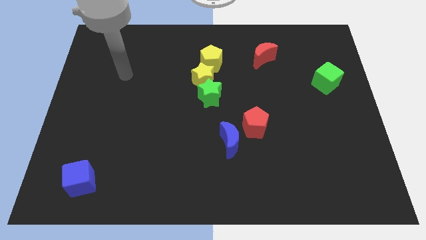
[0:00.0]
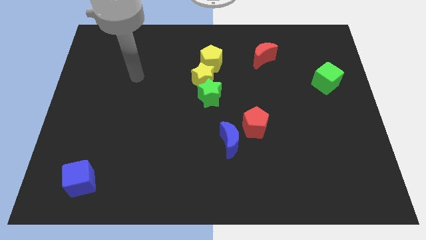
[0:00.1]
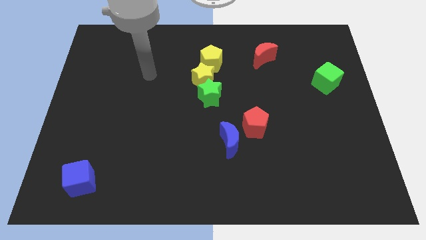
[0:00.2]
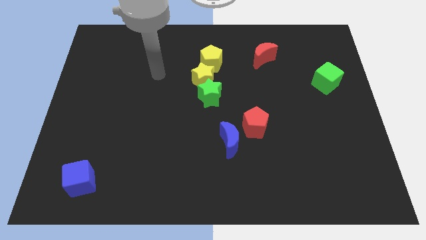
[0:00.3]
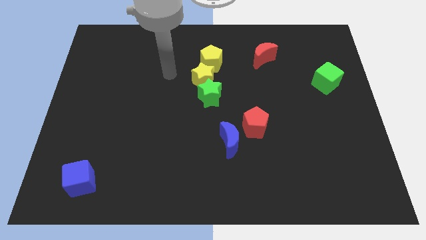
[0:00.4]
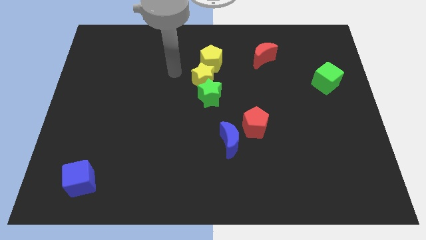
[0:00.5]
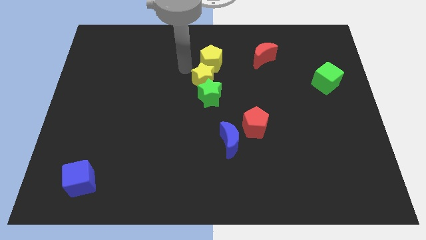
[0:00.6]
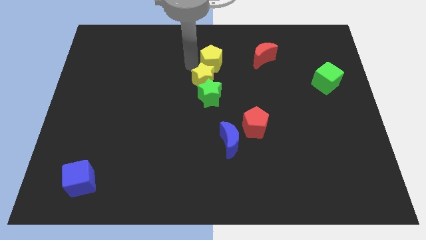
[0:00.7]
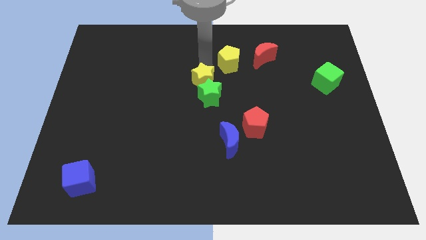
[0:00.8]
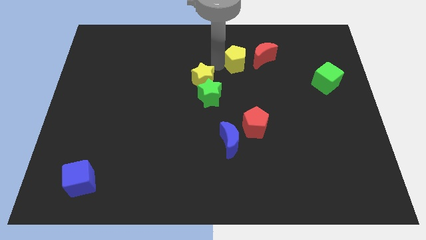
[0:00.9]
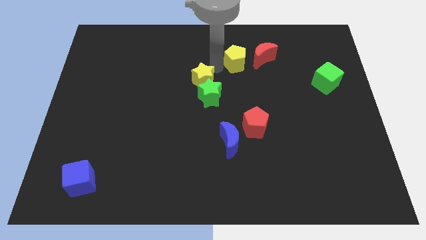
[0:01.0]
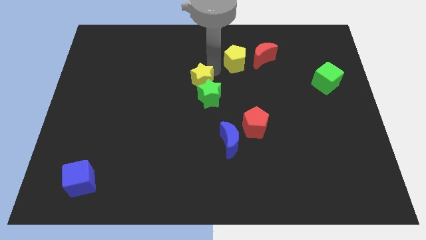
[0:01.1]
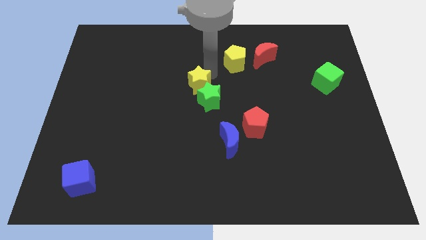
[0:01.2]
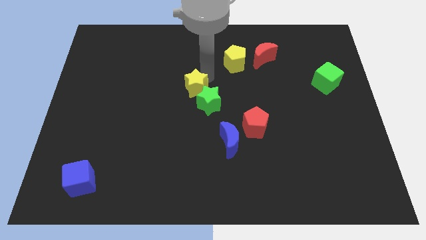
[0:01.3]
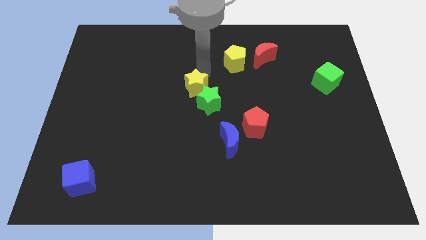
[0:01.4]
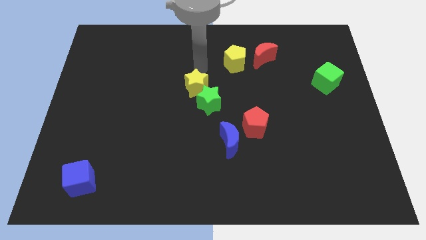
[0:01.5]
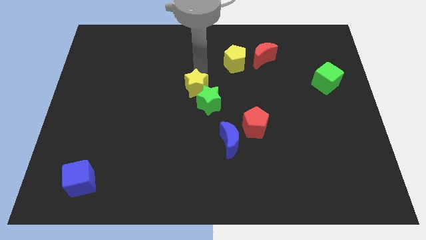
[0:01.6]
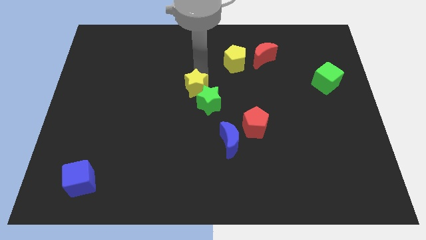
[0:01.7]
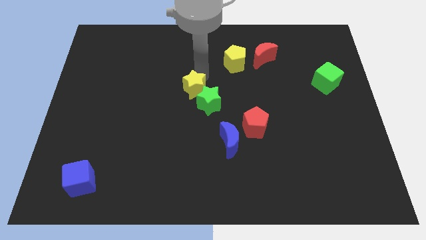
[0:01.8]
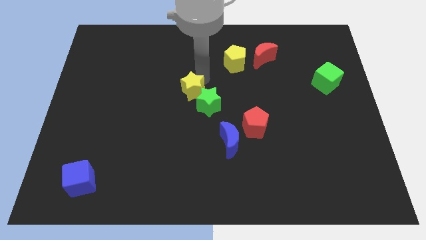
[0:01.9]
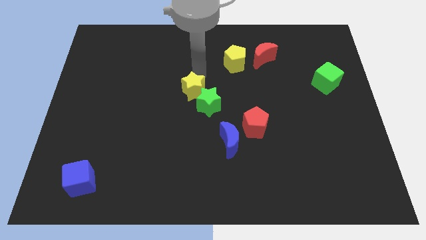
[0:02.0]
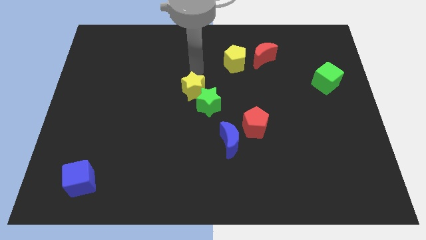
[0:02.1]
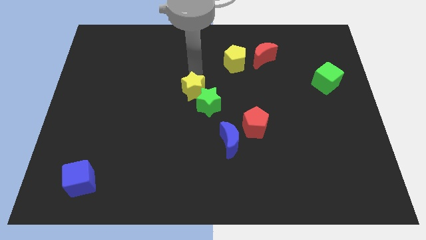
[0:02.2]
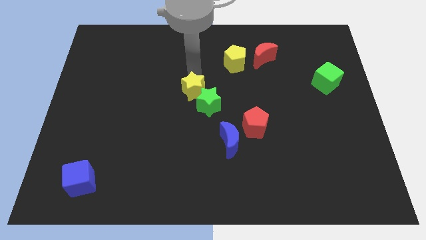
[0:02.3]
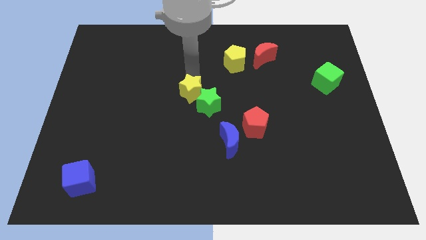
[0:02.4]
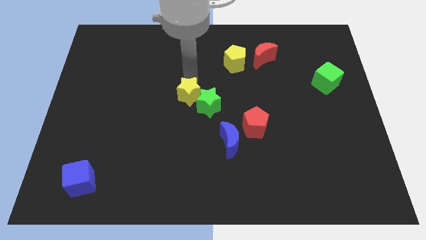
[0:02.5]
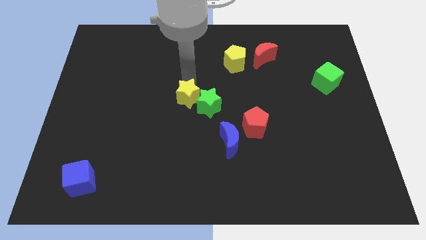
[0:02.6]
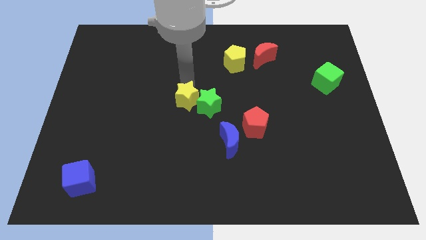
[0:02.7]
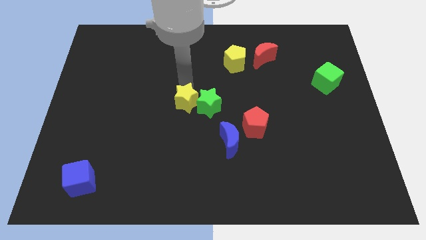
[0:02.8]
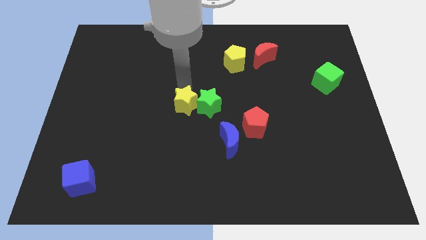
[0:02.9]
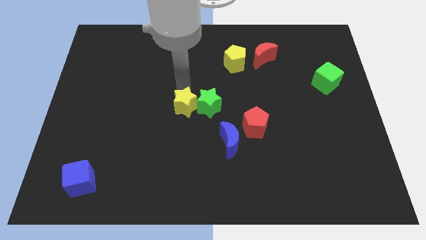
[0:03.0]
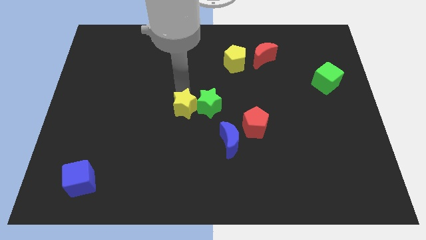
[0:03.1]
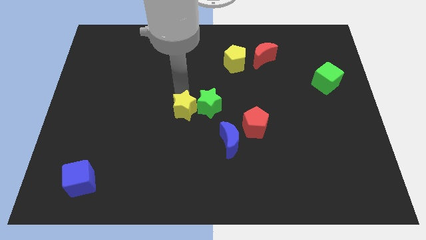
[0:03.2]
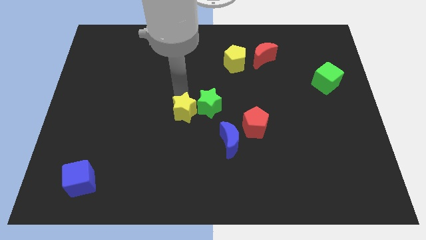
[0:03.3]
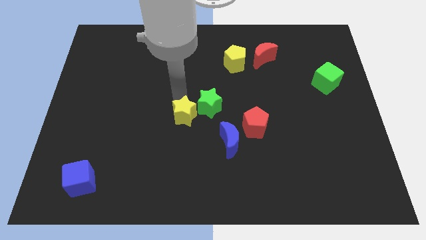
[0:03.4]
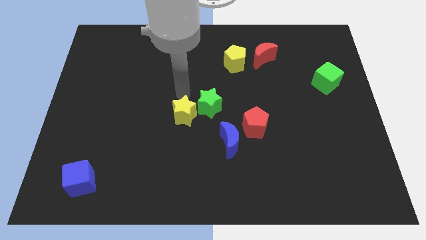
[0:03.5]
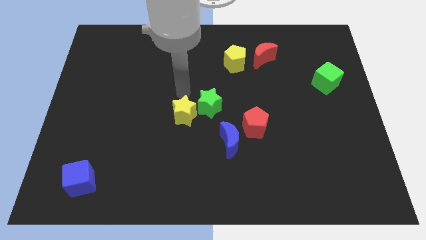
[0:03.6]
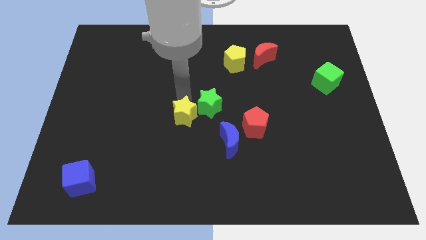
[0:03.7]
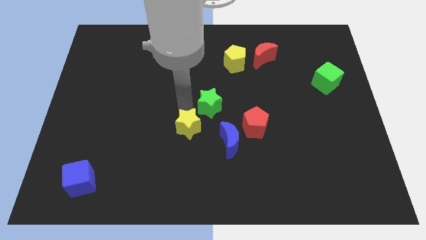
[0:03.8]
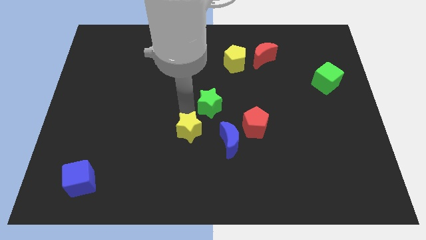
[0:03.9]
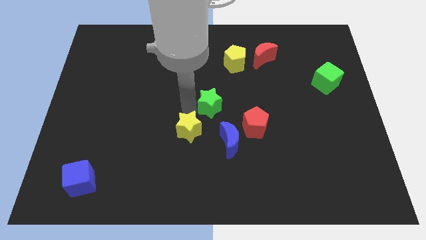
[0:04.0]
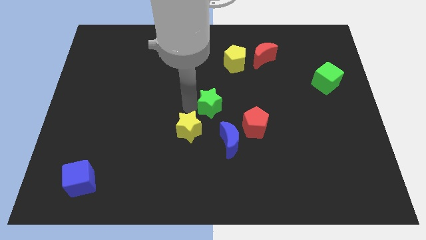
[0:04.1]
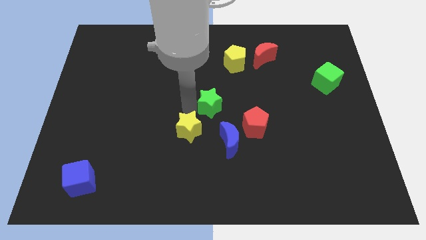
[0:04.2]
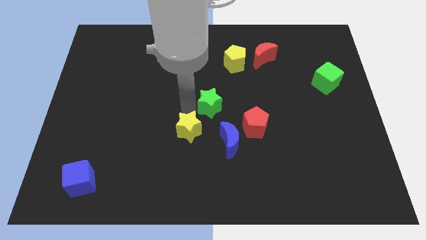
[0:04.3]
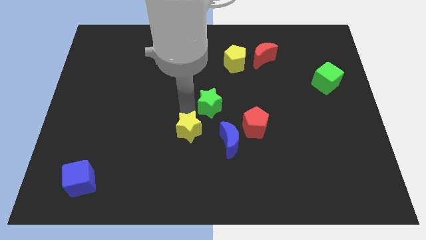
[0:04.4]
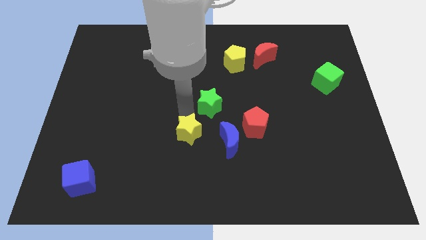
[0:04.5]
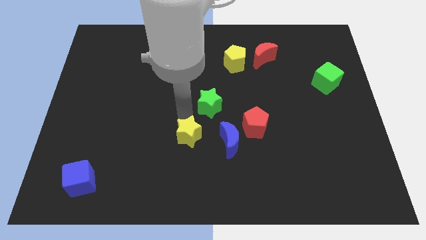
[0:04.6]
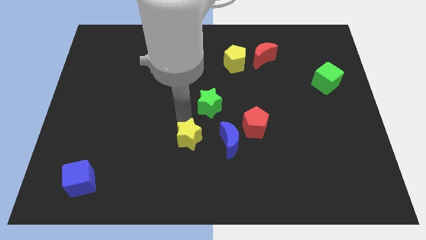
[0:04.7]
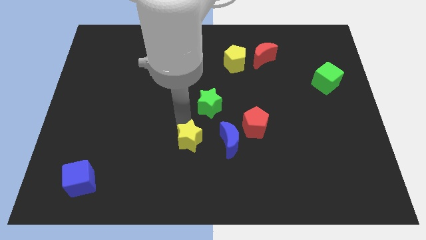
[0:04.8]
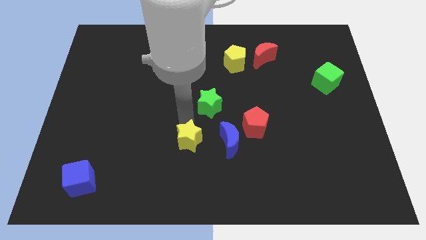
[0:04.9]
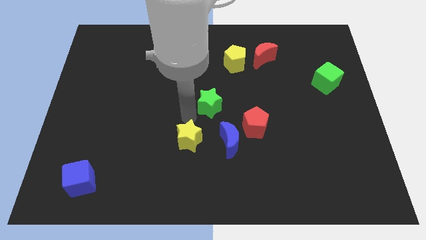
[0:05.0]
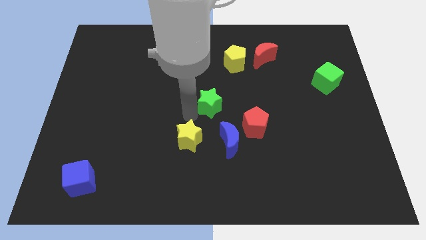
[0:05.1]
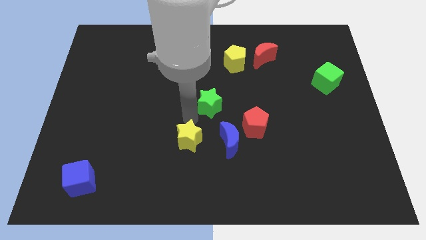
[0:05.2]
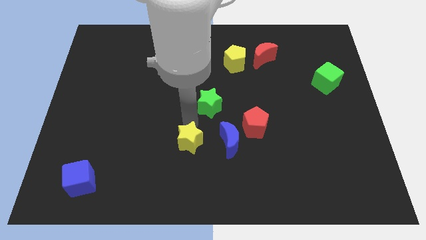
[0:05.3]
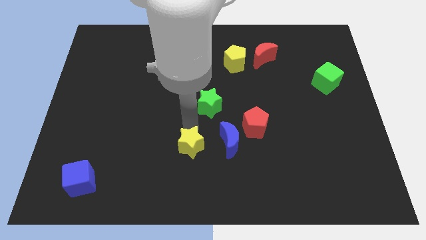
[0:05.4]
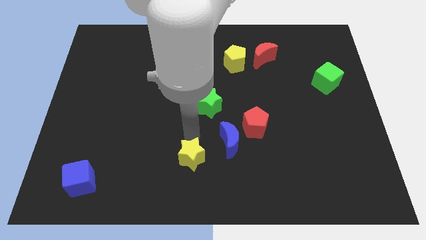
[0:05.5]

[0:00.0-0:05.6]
slide the yellow star to the bottom

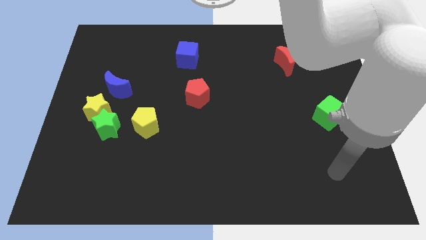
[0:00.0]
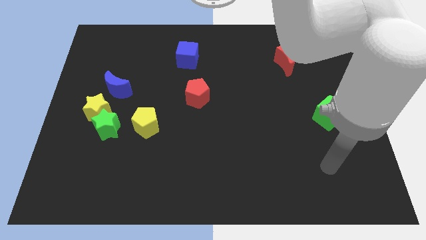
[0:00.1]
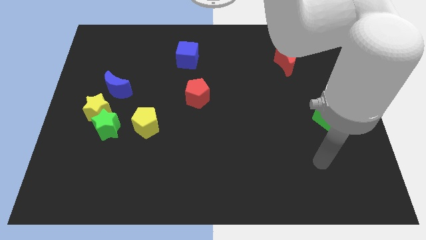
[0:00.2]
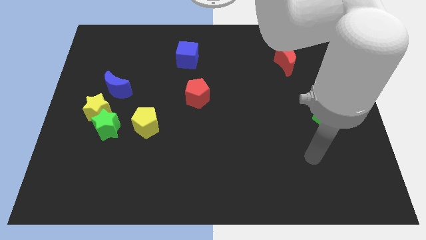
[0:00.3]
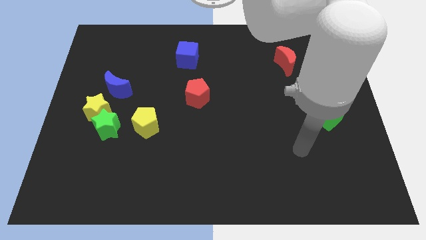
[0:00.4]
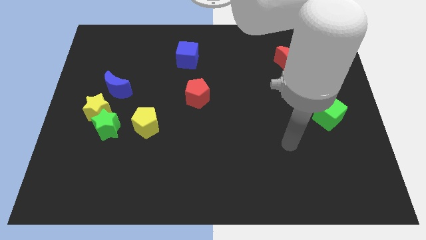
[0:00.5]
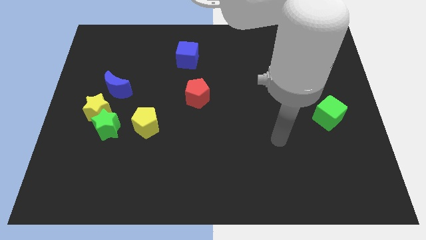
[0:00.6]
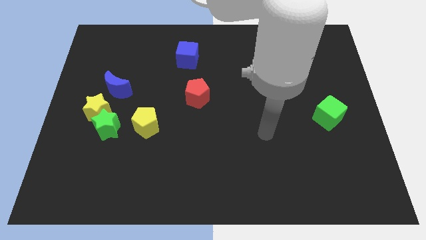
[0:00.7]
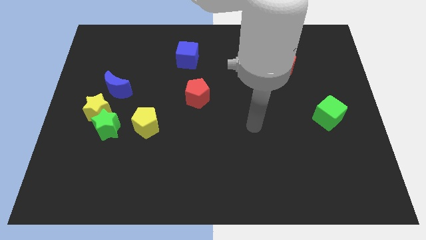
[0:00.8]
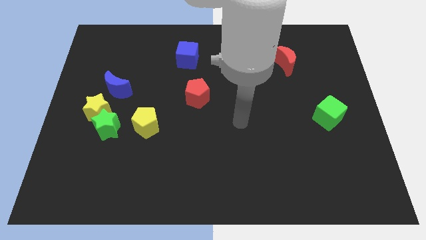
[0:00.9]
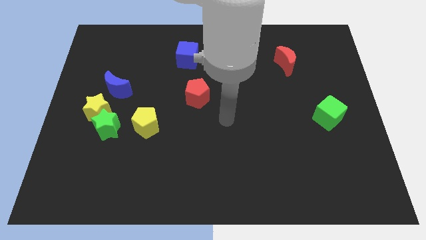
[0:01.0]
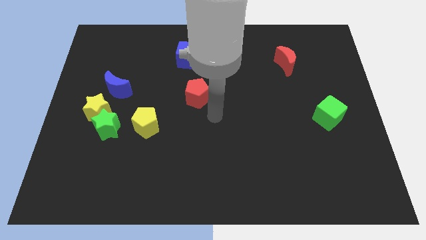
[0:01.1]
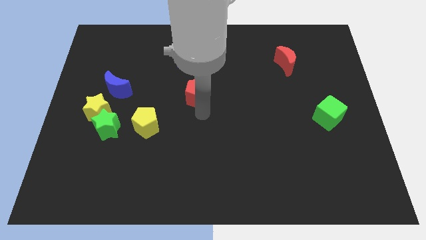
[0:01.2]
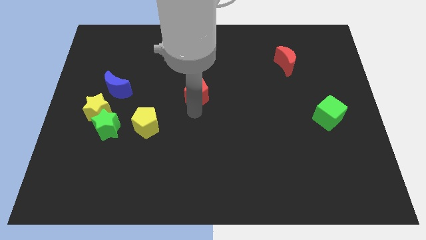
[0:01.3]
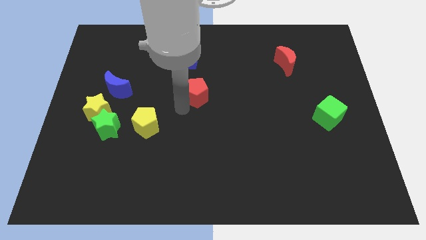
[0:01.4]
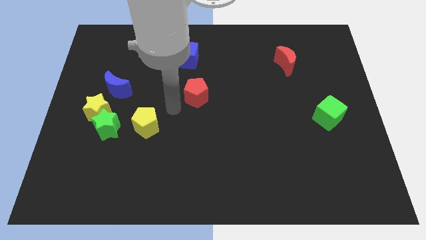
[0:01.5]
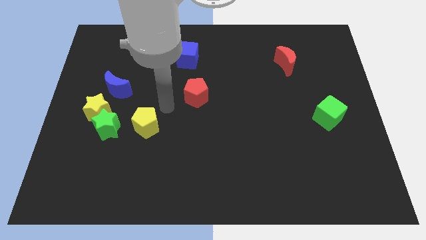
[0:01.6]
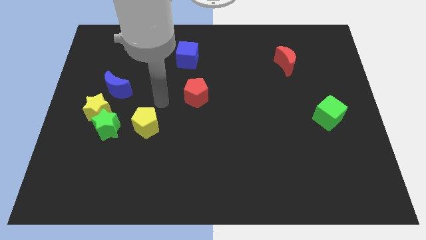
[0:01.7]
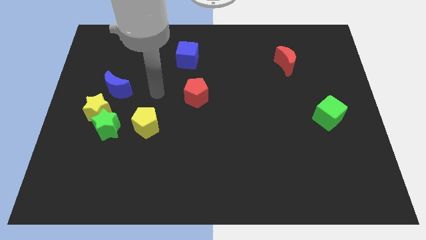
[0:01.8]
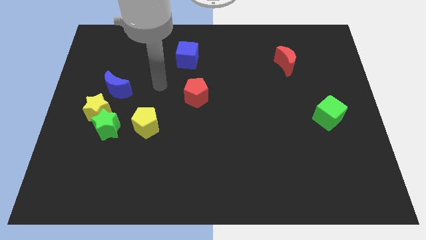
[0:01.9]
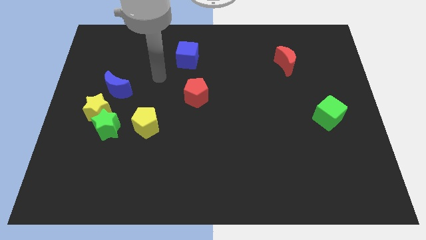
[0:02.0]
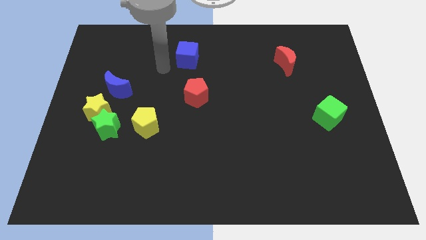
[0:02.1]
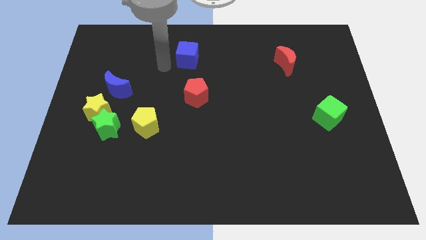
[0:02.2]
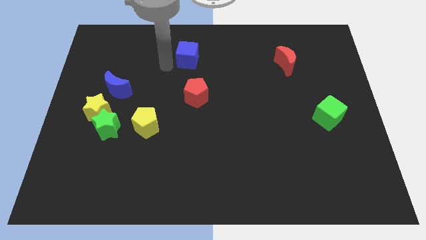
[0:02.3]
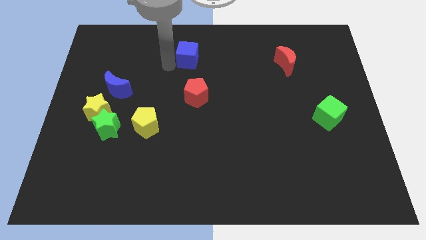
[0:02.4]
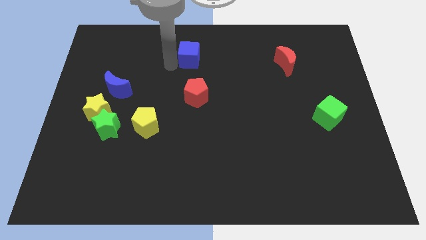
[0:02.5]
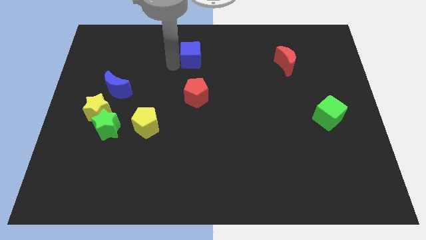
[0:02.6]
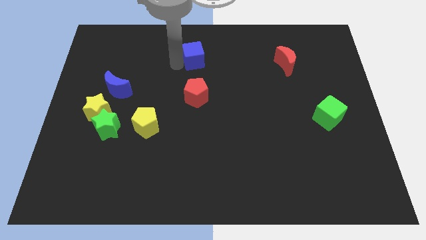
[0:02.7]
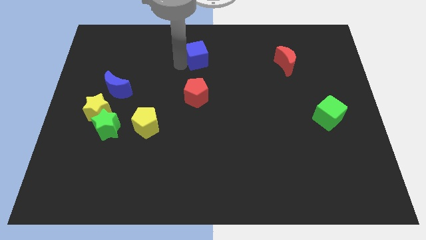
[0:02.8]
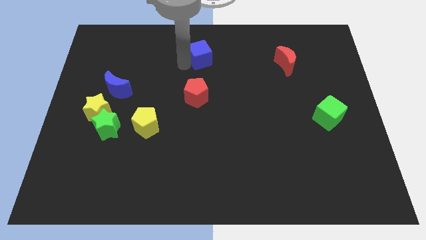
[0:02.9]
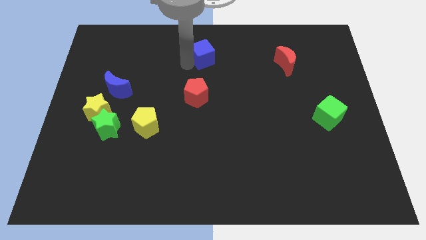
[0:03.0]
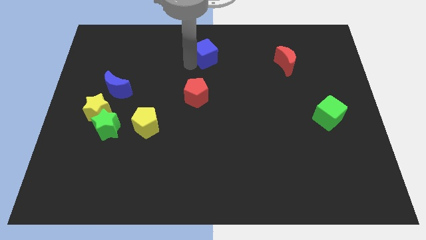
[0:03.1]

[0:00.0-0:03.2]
put the blue cube to the towards your base
